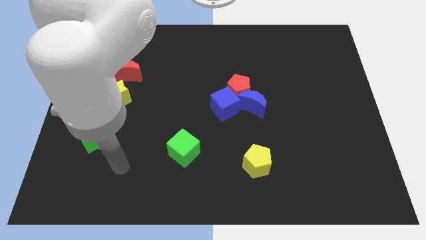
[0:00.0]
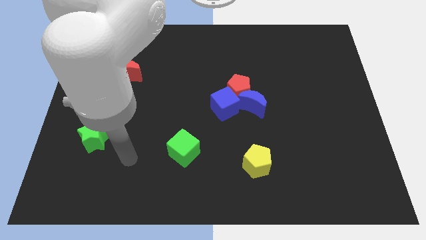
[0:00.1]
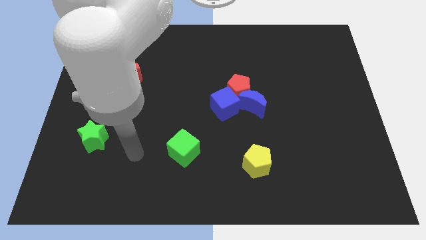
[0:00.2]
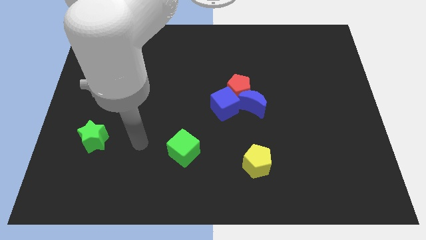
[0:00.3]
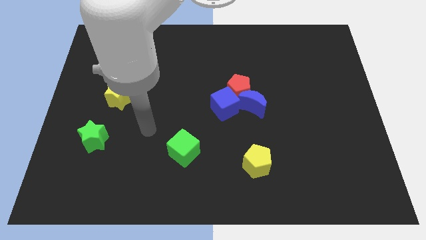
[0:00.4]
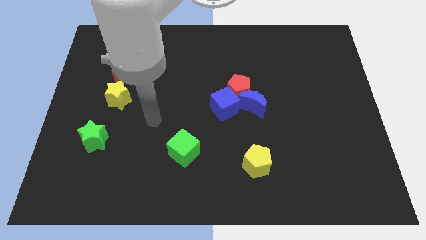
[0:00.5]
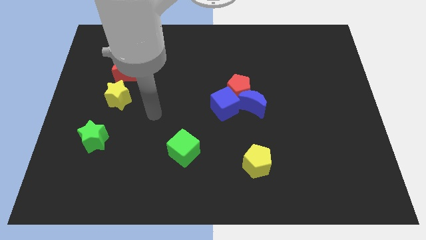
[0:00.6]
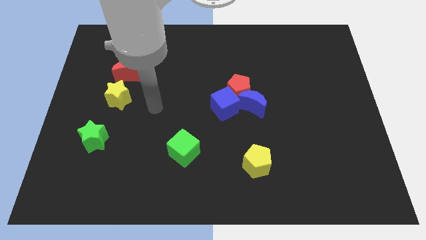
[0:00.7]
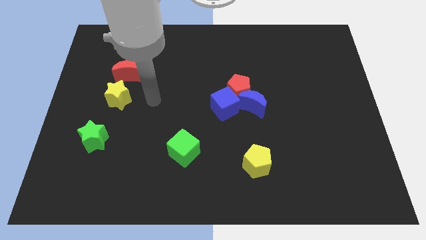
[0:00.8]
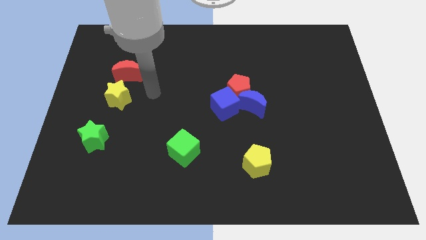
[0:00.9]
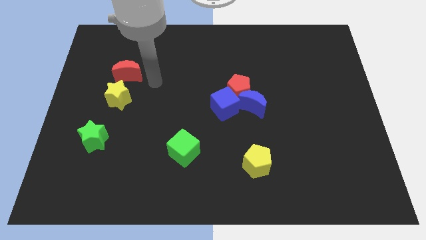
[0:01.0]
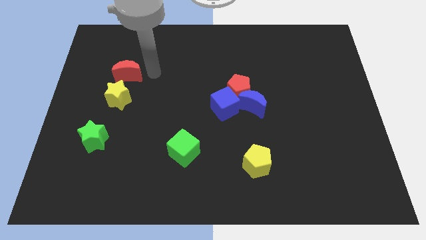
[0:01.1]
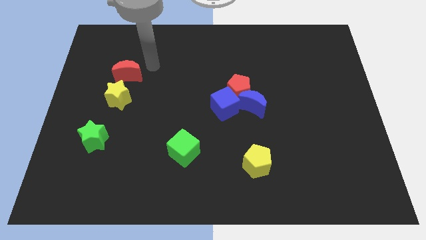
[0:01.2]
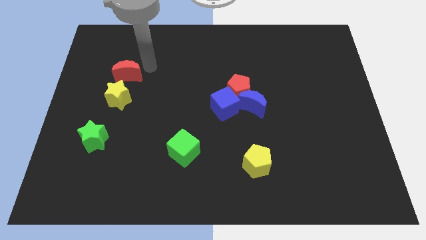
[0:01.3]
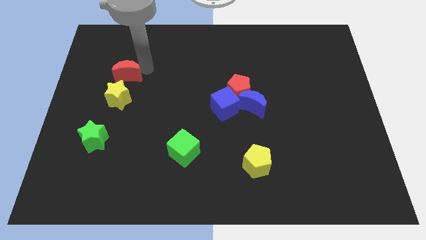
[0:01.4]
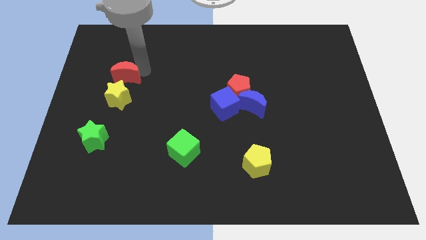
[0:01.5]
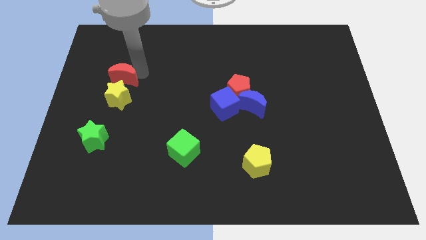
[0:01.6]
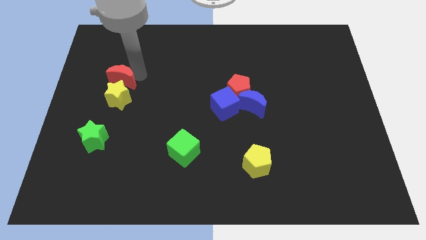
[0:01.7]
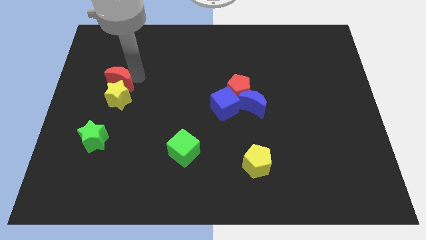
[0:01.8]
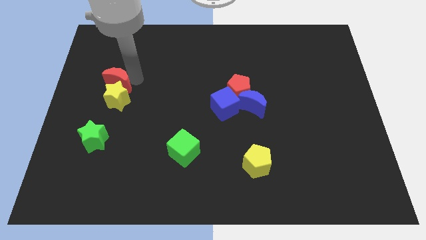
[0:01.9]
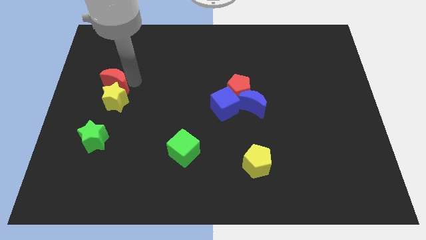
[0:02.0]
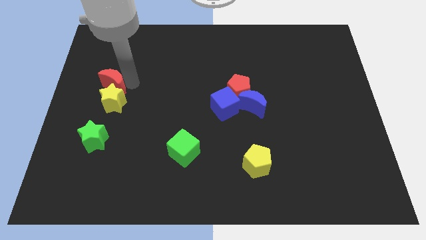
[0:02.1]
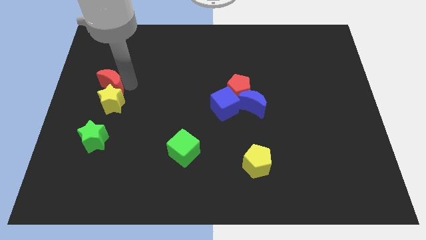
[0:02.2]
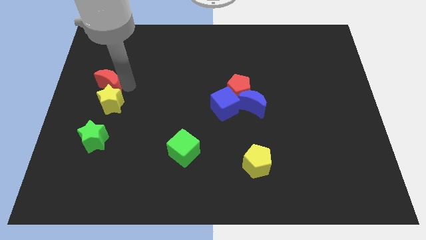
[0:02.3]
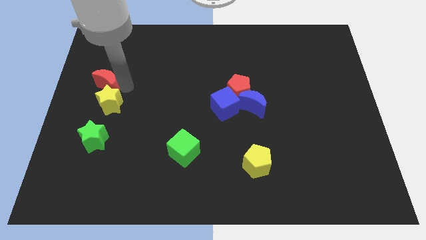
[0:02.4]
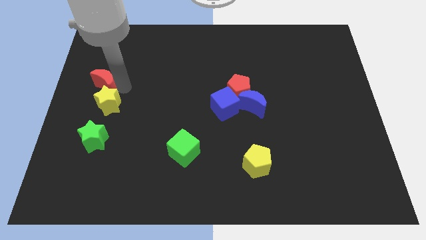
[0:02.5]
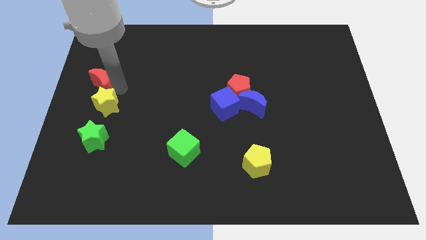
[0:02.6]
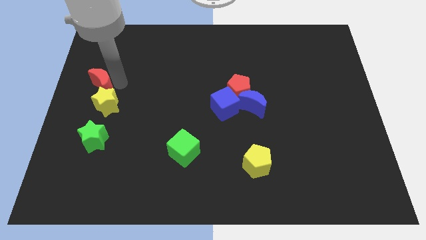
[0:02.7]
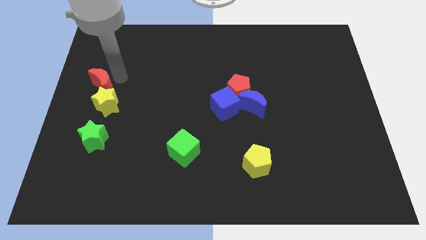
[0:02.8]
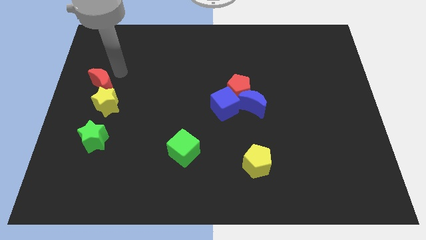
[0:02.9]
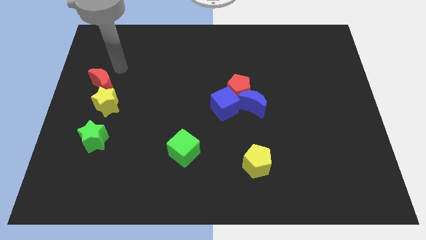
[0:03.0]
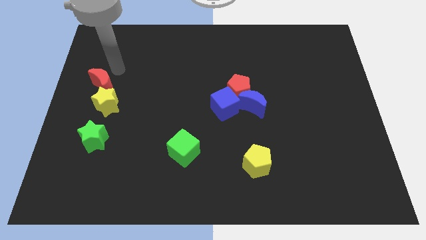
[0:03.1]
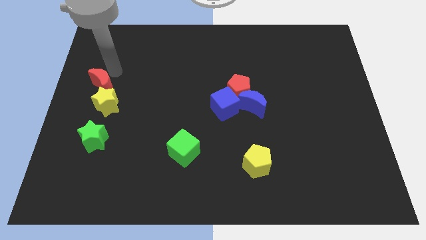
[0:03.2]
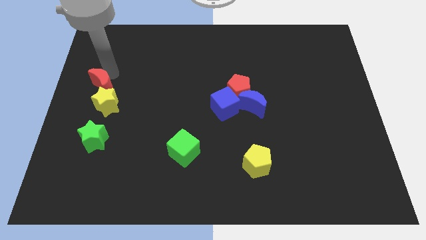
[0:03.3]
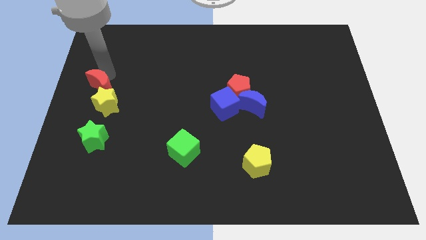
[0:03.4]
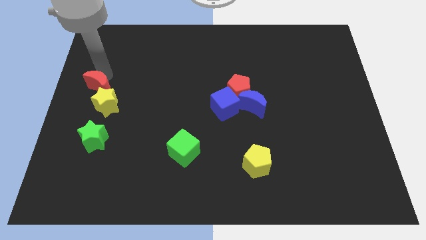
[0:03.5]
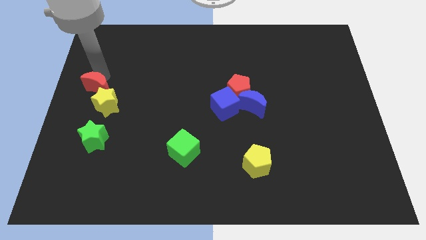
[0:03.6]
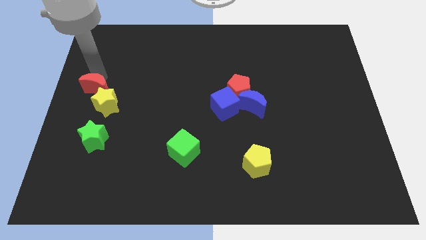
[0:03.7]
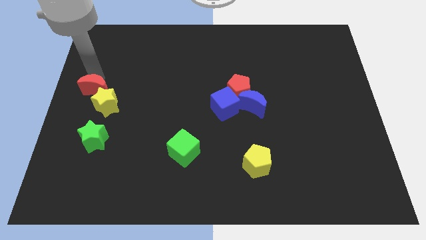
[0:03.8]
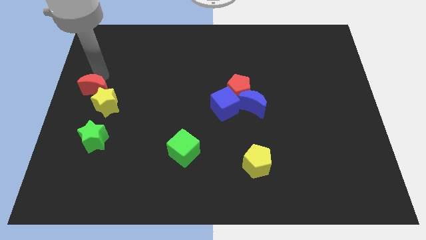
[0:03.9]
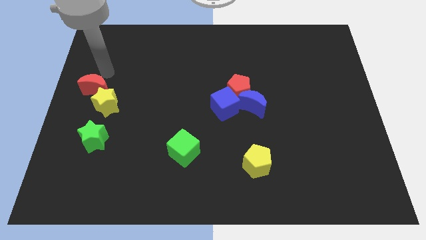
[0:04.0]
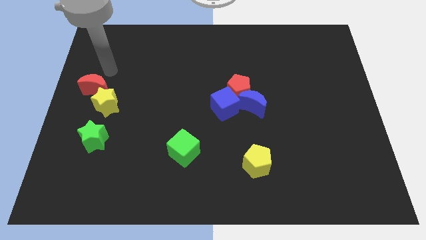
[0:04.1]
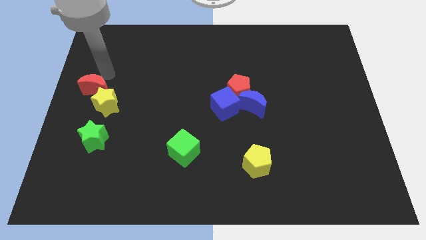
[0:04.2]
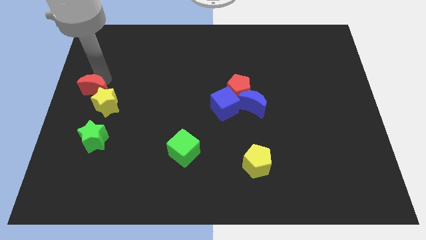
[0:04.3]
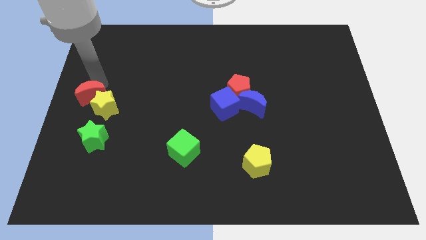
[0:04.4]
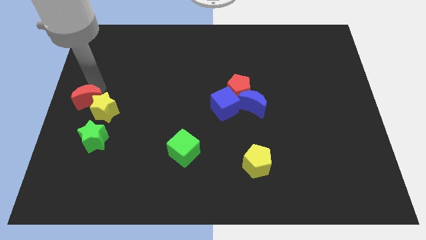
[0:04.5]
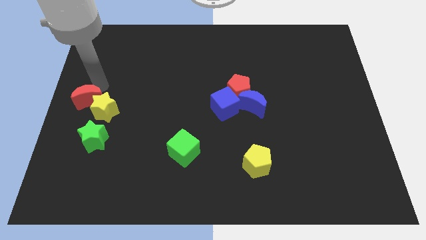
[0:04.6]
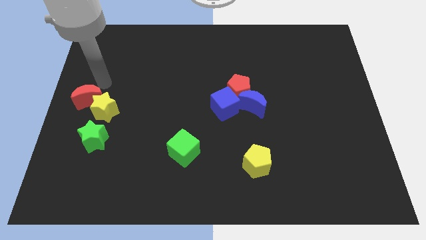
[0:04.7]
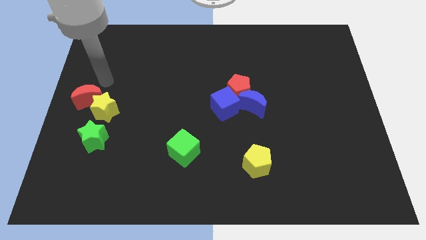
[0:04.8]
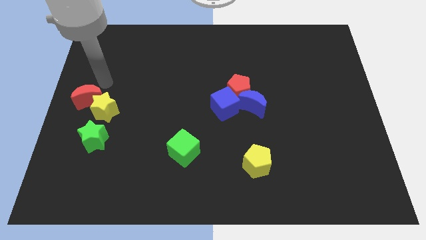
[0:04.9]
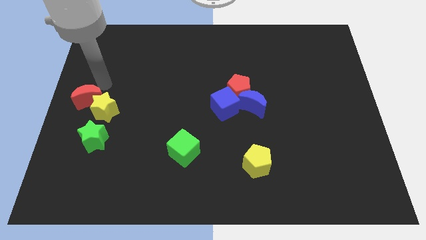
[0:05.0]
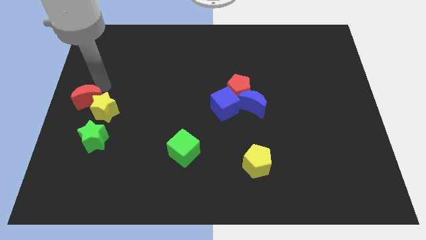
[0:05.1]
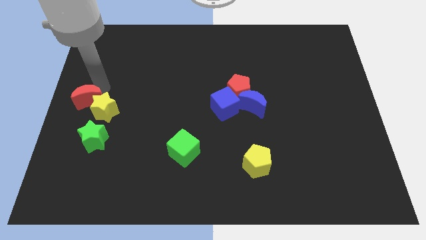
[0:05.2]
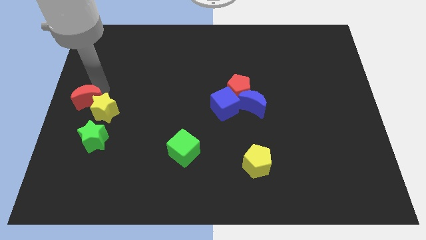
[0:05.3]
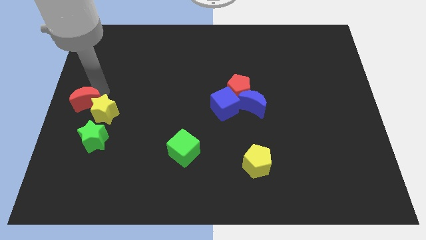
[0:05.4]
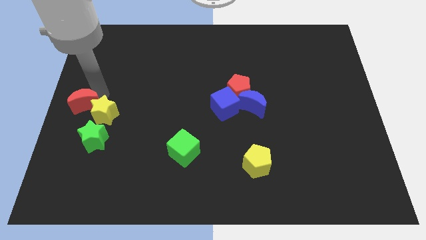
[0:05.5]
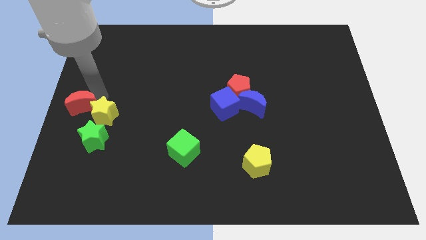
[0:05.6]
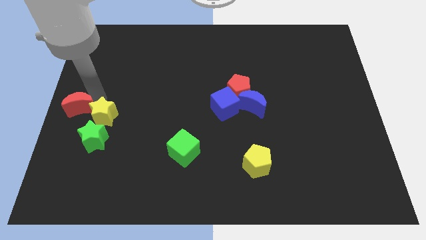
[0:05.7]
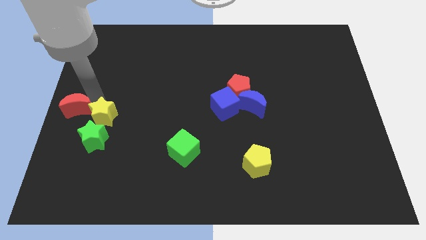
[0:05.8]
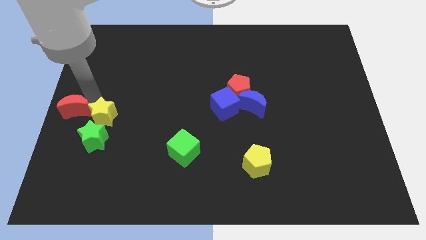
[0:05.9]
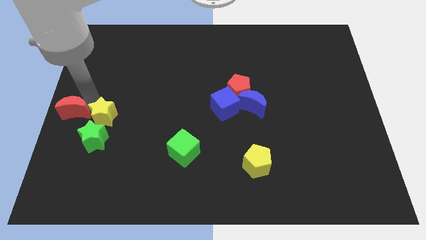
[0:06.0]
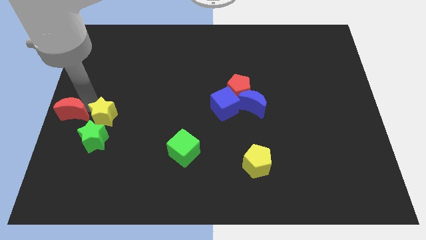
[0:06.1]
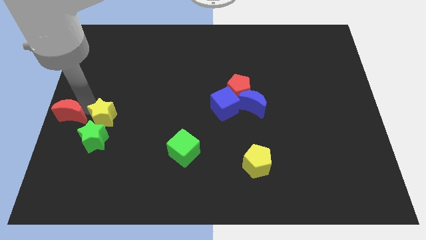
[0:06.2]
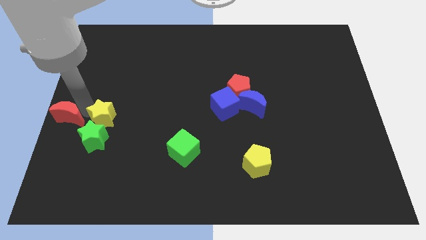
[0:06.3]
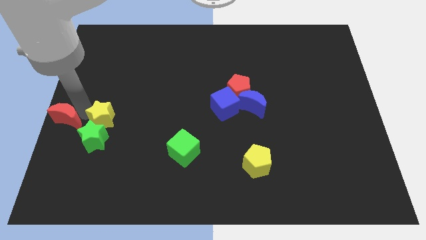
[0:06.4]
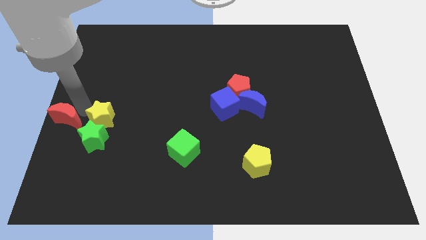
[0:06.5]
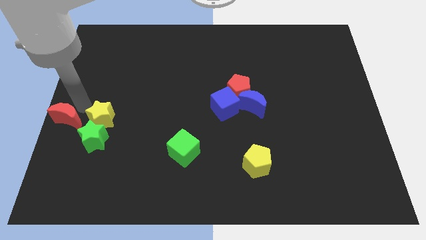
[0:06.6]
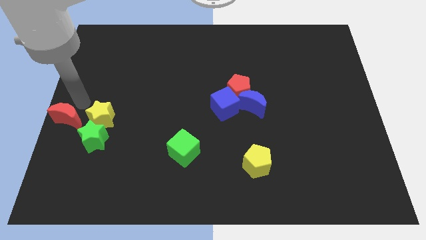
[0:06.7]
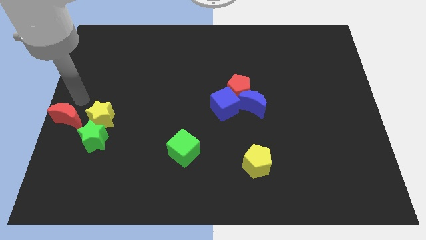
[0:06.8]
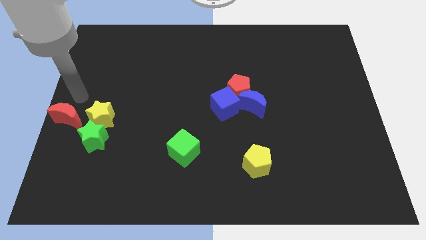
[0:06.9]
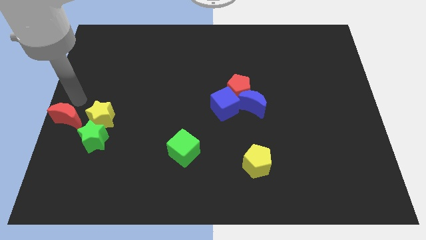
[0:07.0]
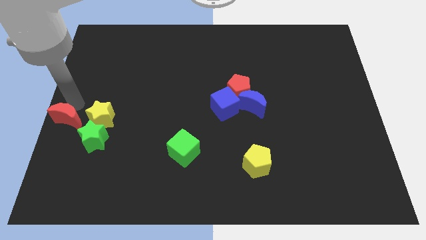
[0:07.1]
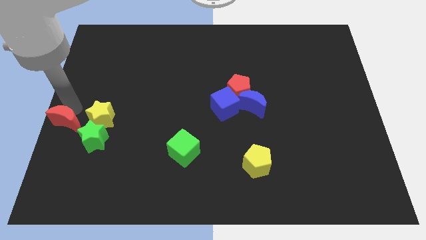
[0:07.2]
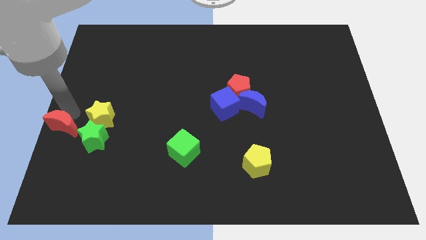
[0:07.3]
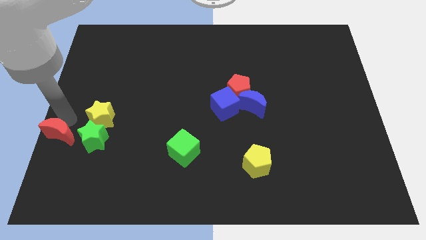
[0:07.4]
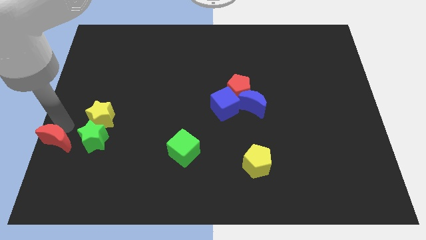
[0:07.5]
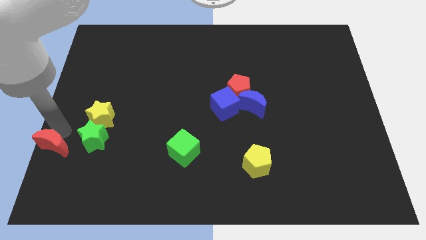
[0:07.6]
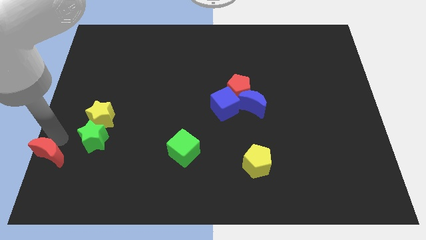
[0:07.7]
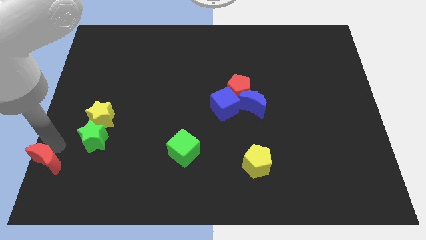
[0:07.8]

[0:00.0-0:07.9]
push the red moon to the bottom left
